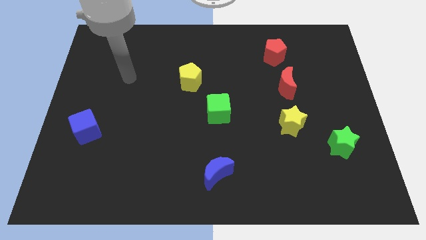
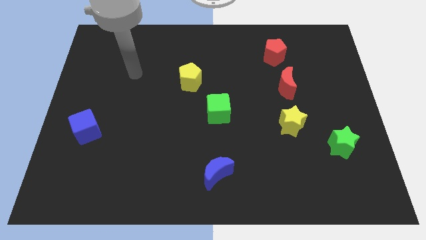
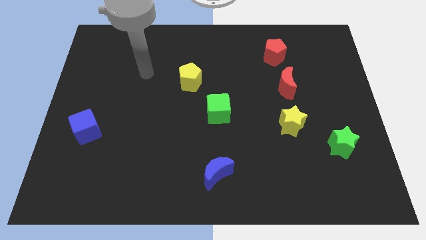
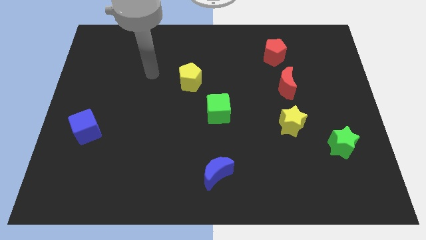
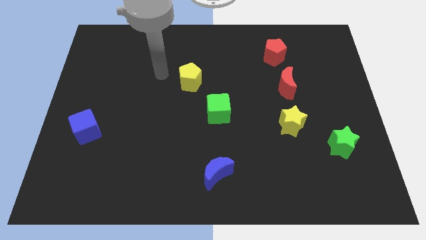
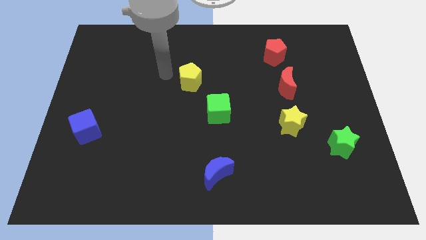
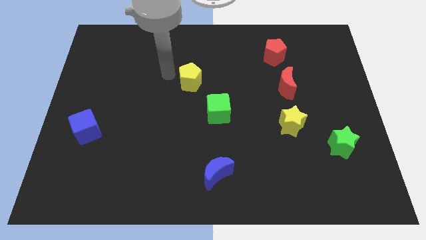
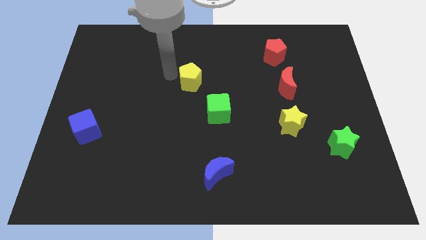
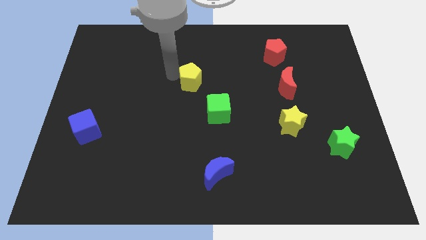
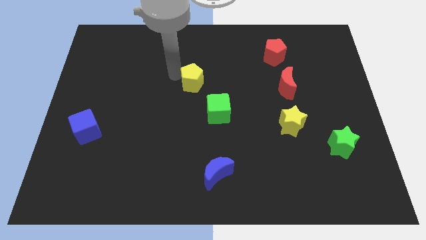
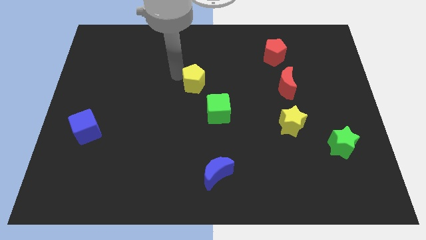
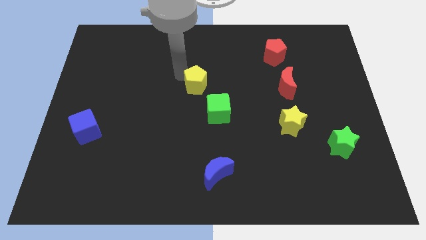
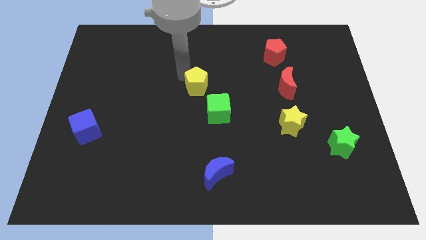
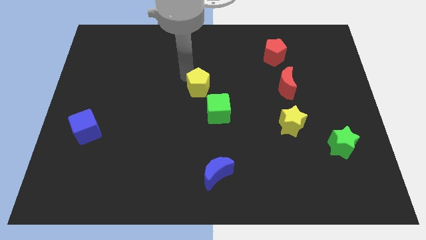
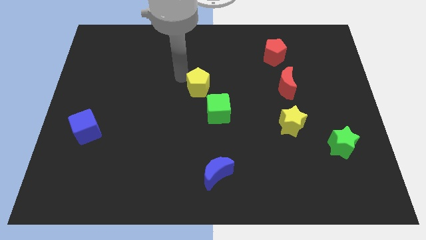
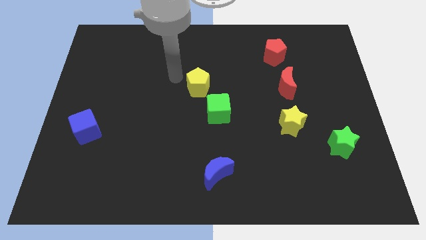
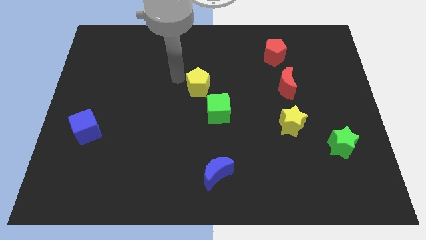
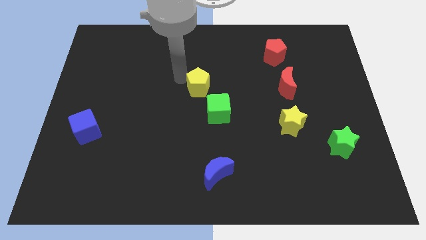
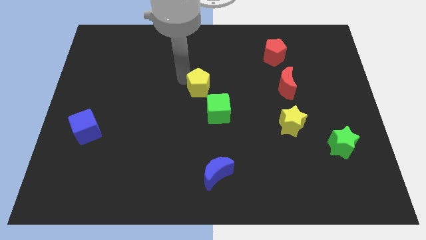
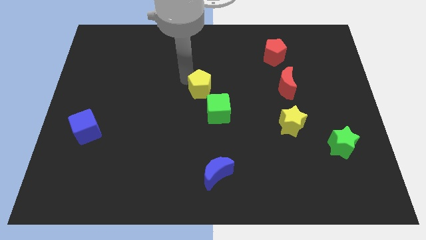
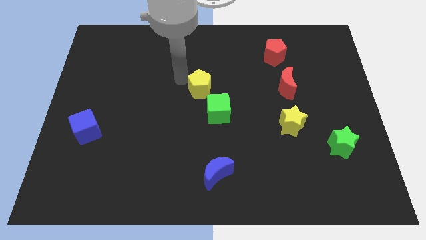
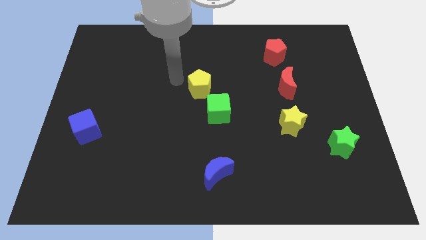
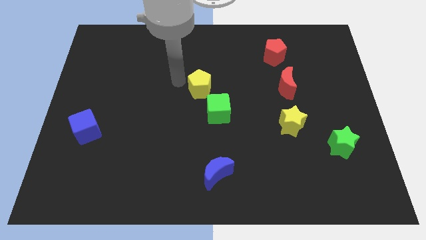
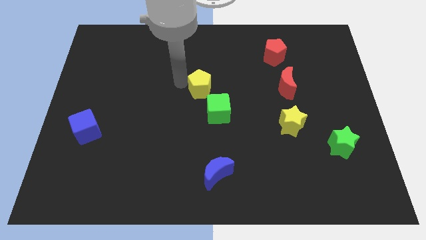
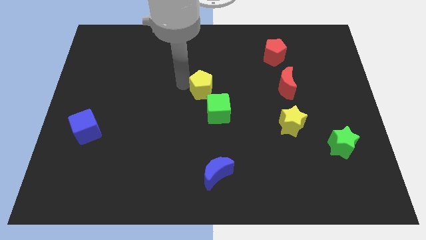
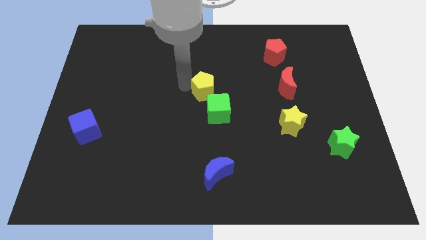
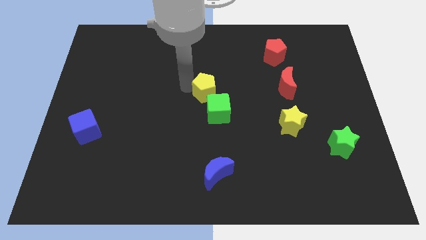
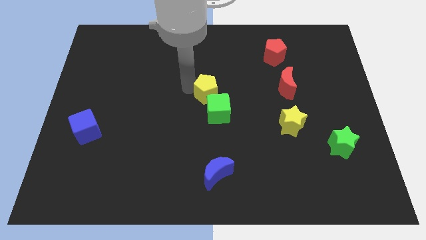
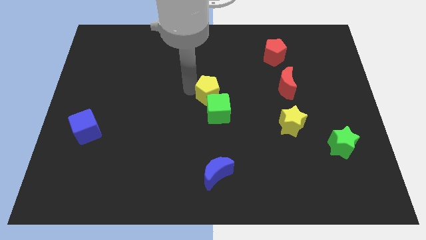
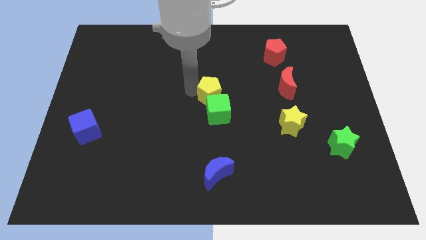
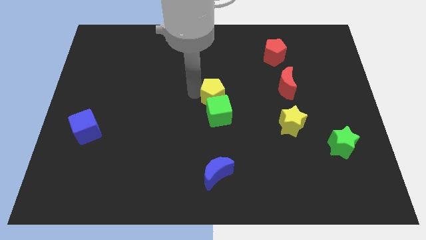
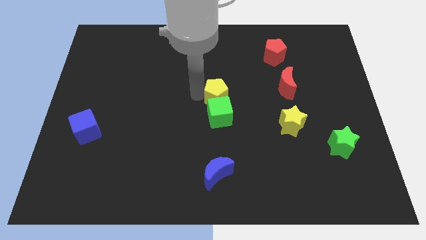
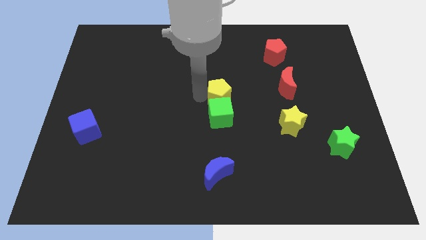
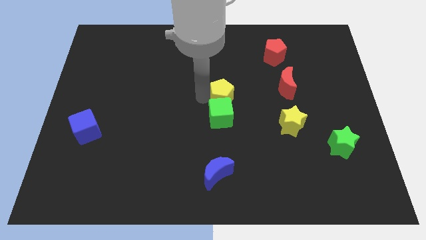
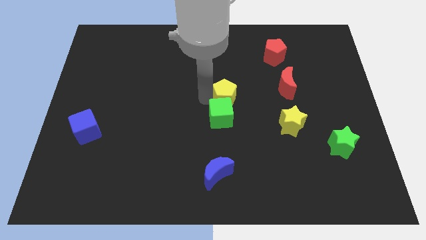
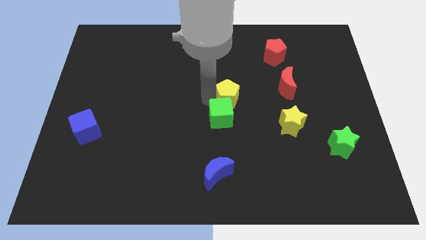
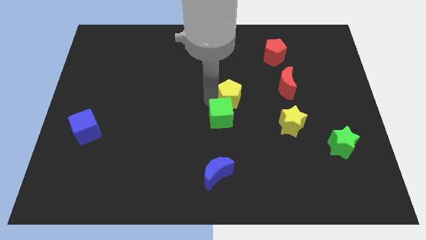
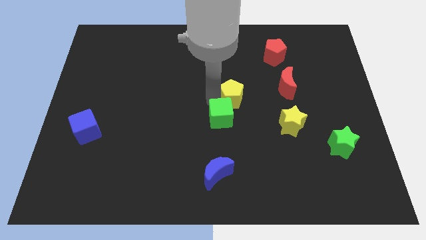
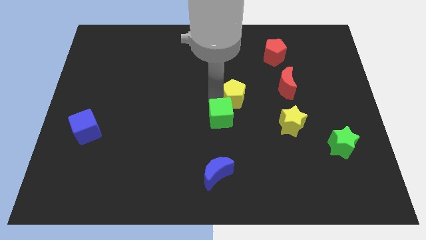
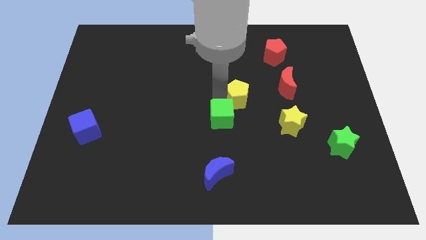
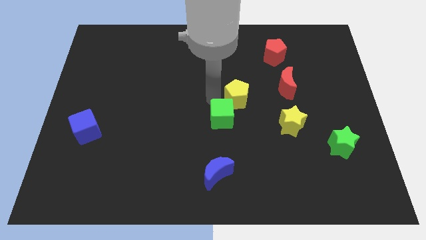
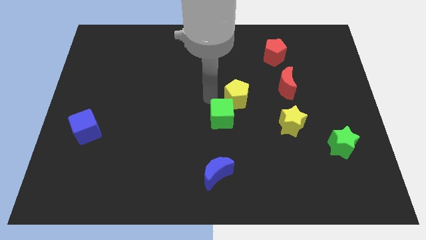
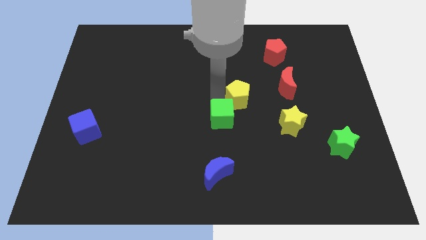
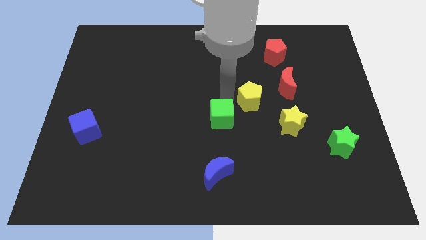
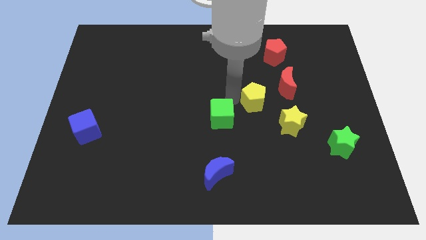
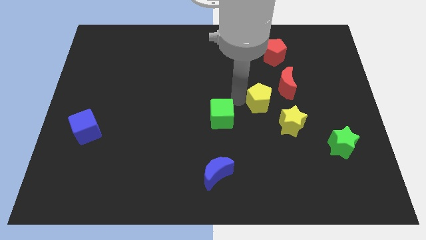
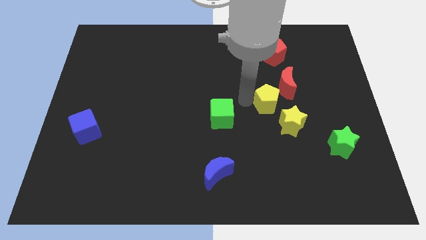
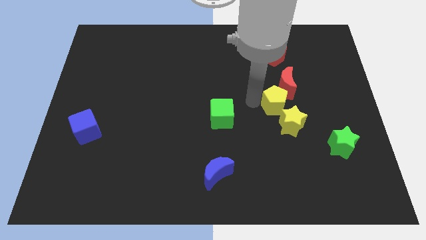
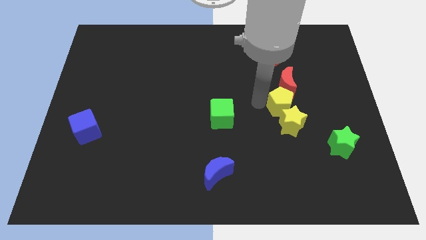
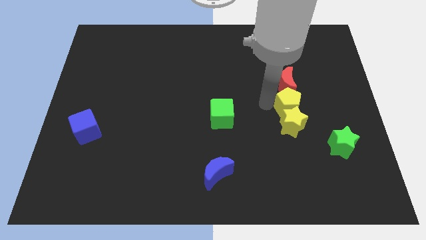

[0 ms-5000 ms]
put the yellow pentagon to the top right side of the yellow star

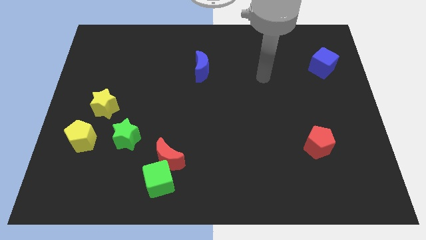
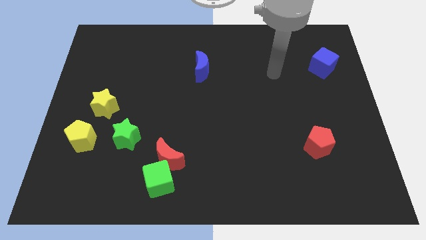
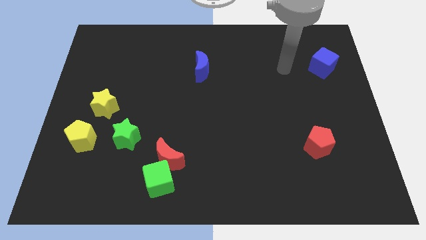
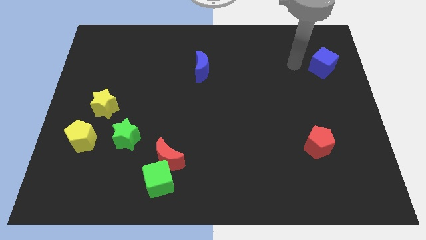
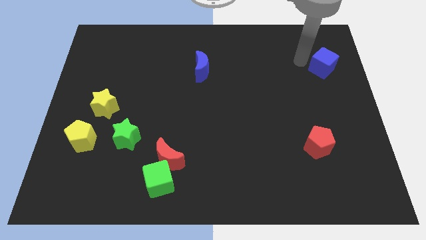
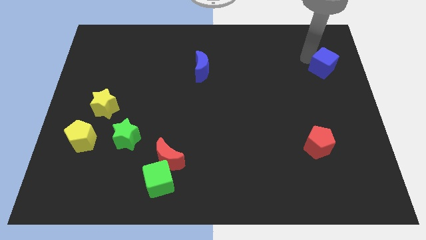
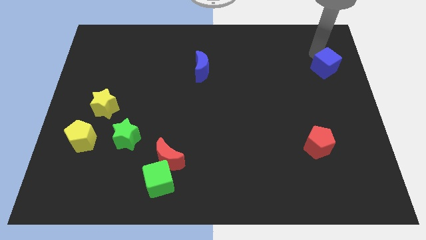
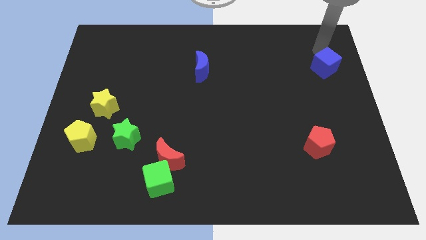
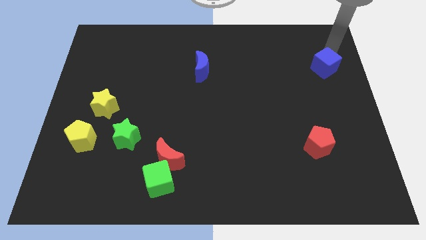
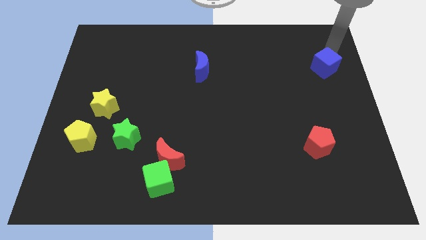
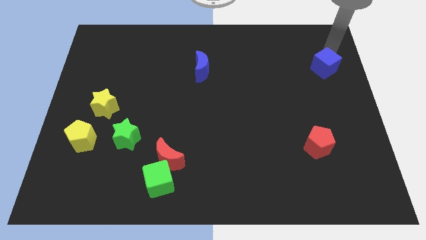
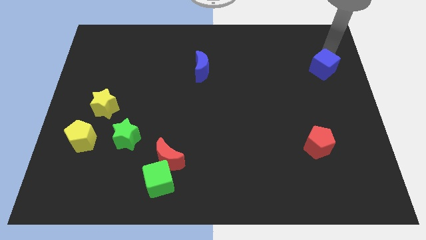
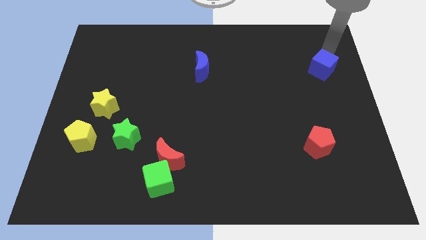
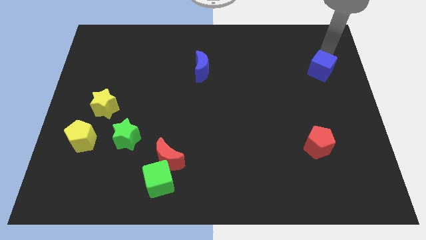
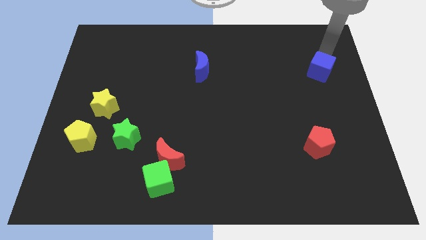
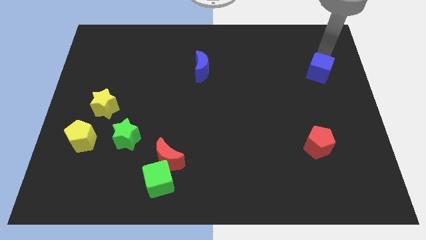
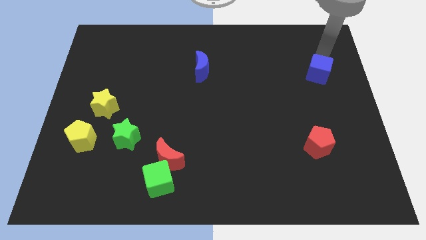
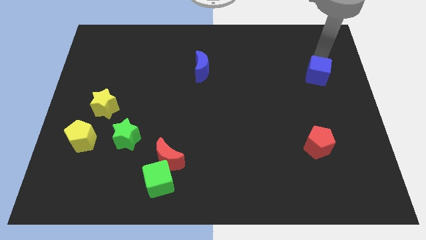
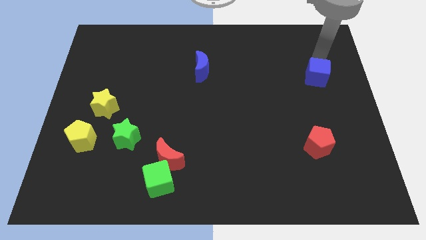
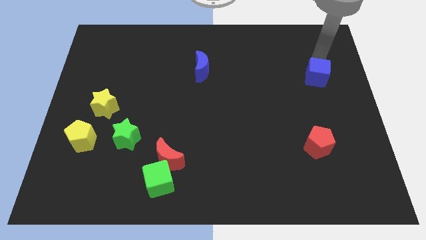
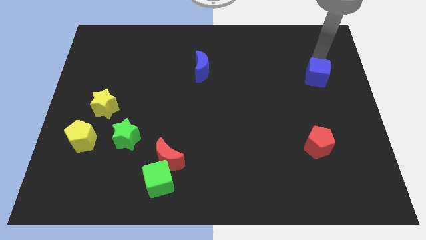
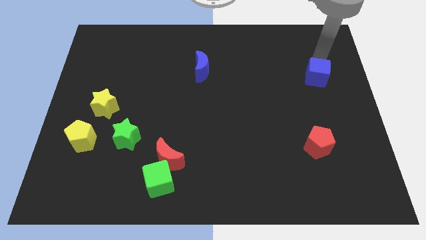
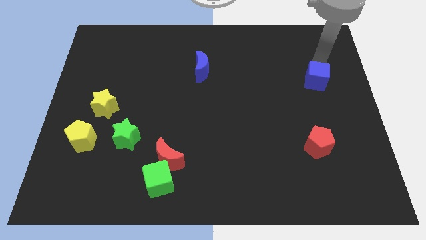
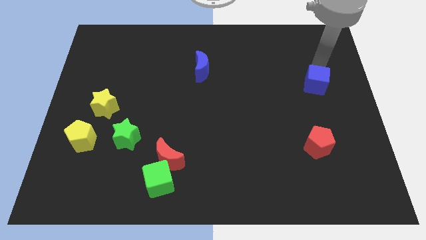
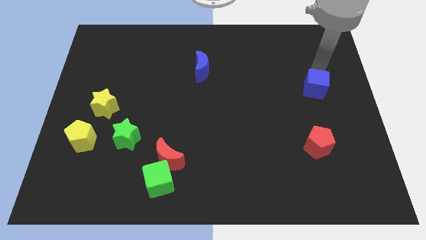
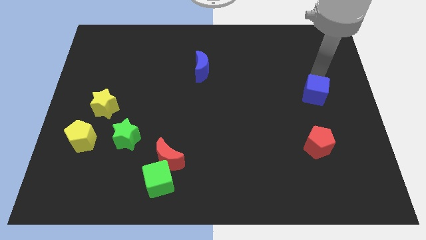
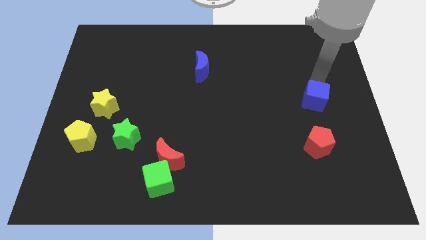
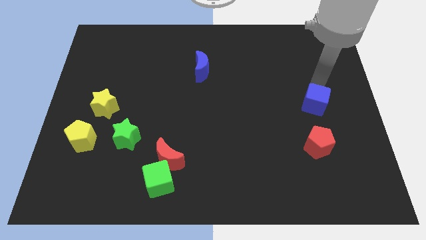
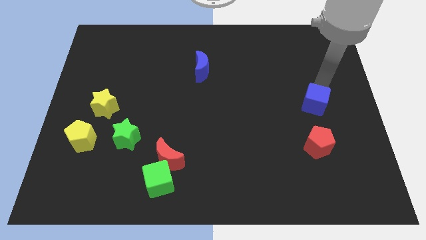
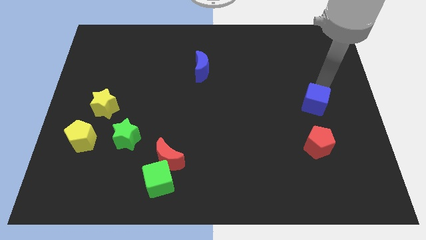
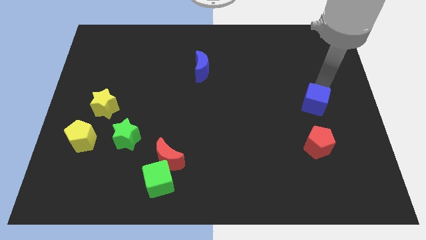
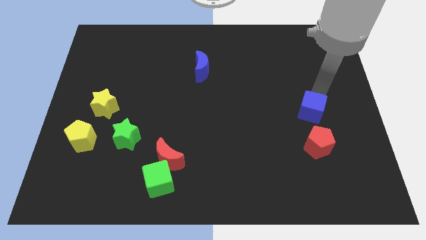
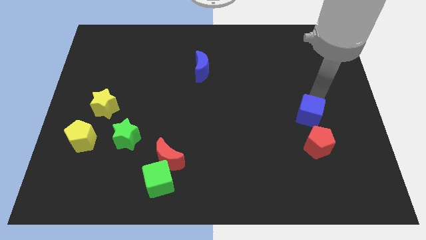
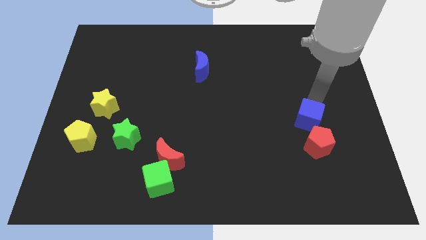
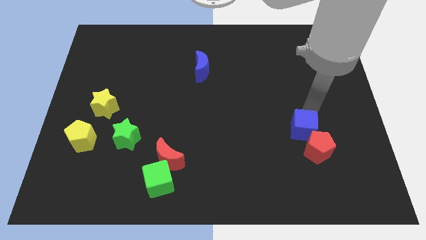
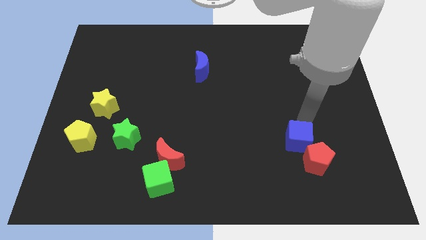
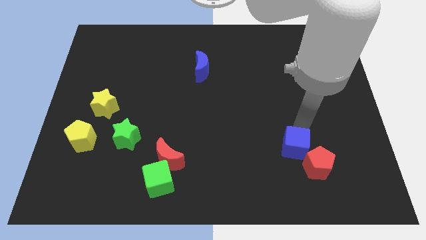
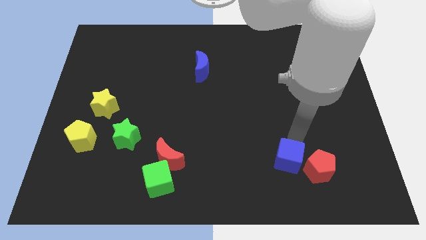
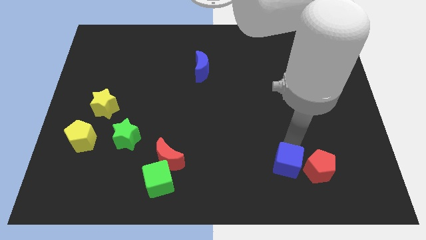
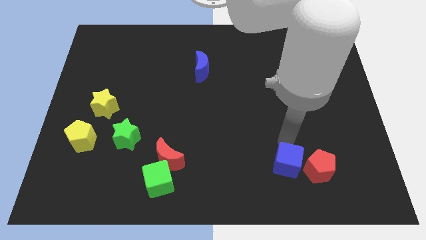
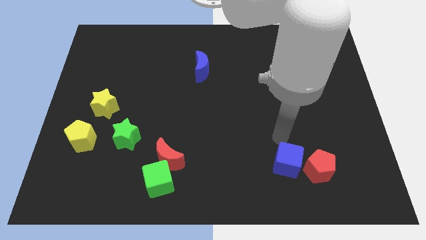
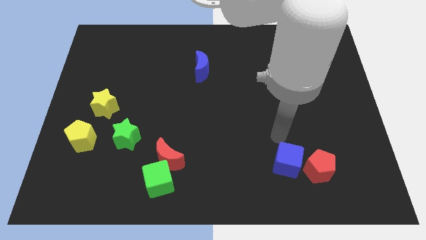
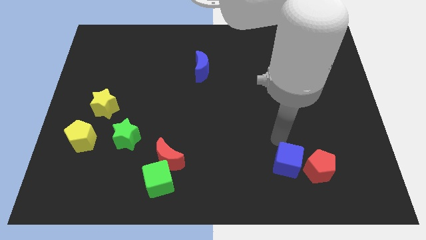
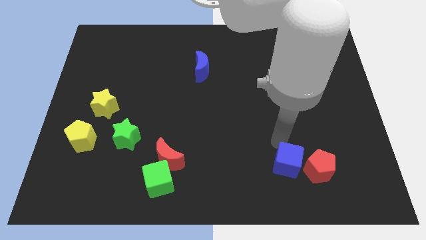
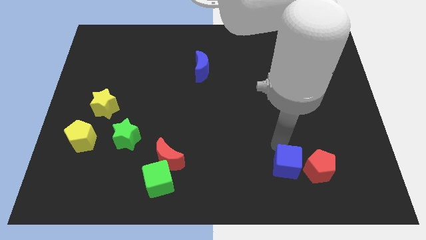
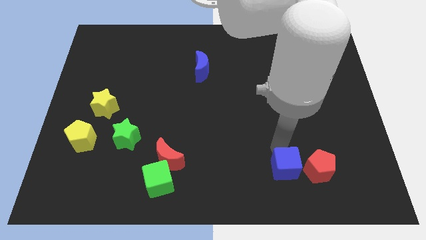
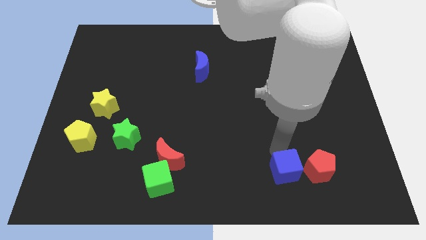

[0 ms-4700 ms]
put the blue cube diagonally down and to the left of the red pentagon
